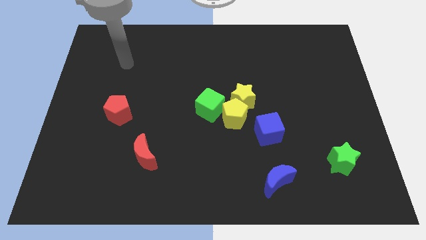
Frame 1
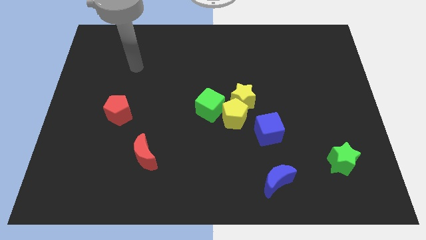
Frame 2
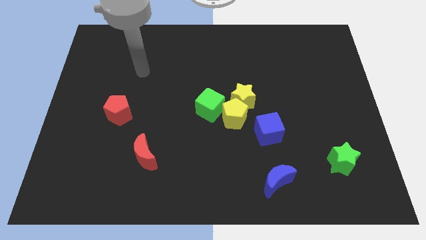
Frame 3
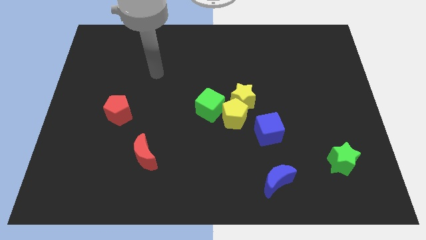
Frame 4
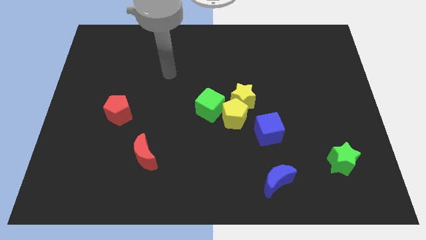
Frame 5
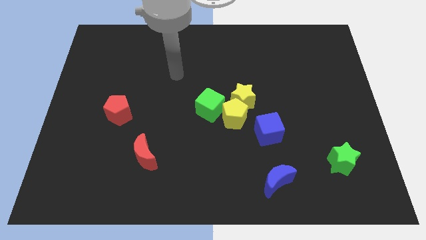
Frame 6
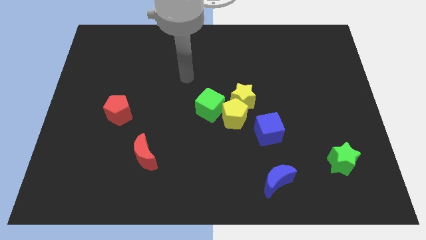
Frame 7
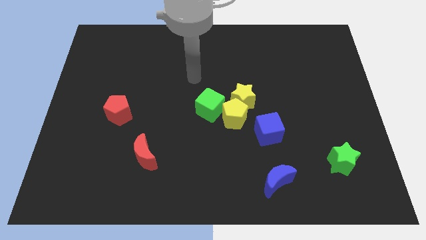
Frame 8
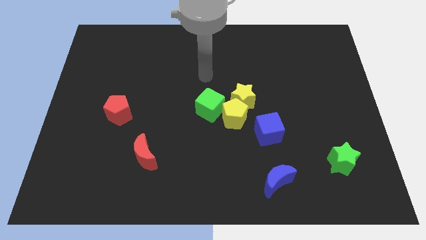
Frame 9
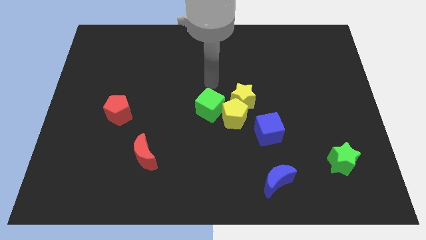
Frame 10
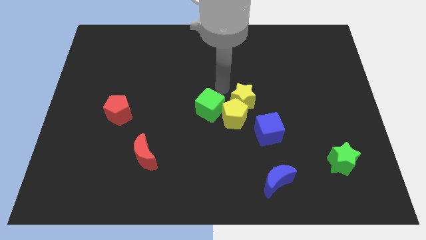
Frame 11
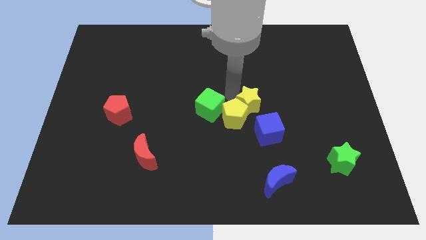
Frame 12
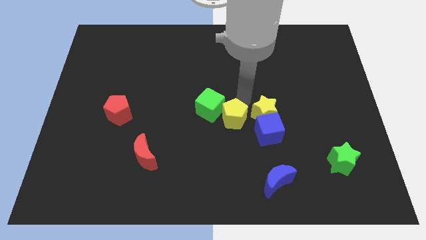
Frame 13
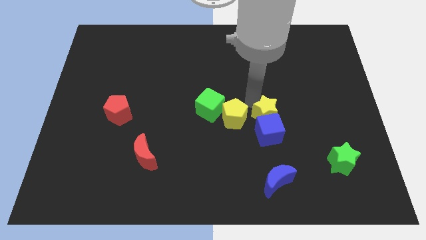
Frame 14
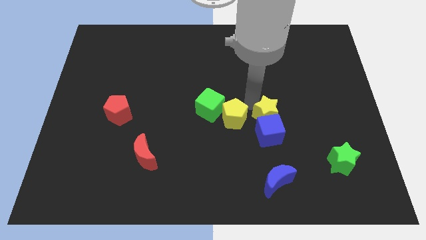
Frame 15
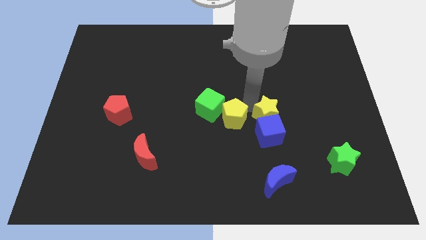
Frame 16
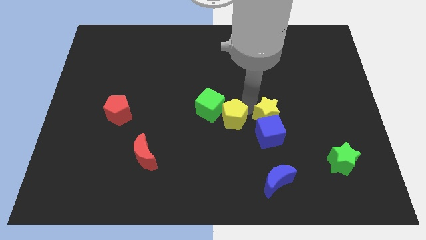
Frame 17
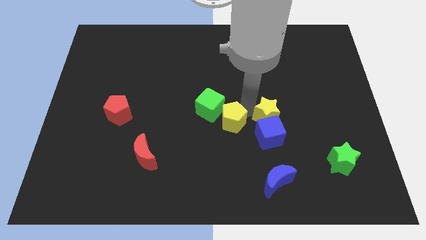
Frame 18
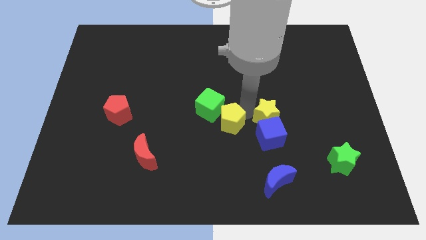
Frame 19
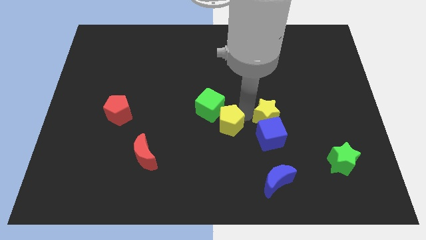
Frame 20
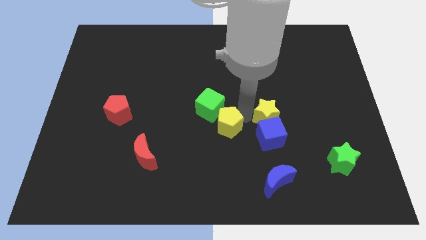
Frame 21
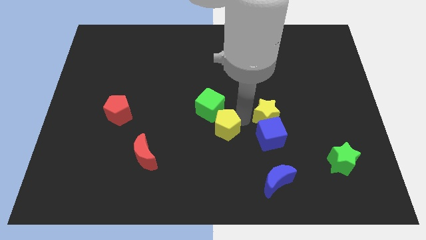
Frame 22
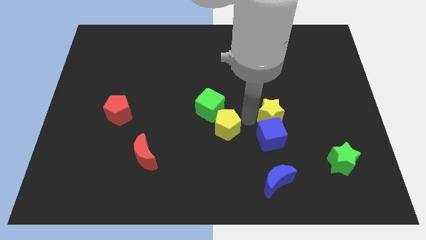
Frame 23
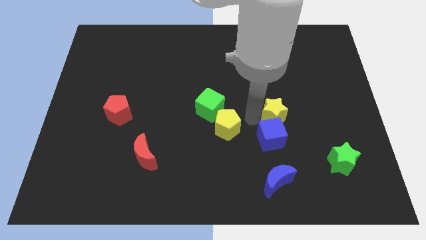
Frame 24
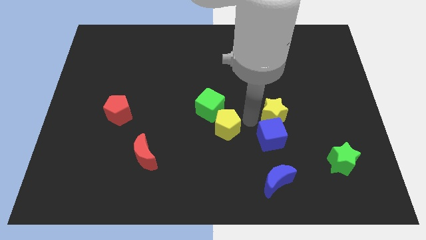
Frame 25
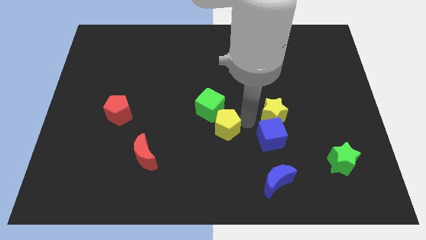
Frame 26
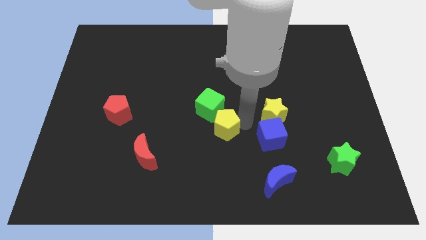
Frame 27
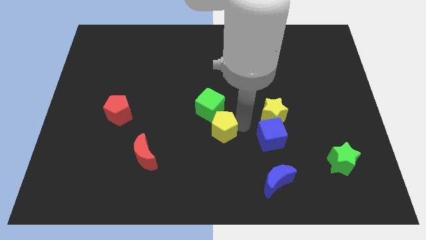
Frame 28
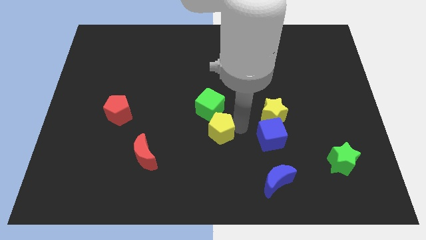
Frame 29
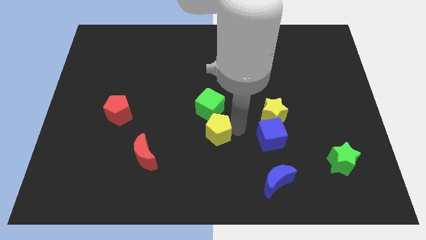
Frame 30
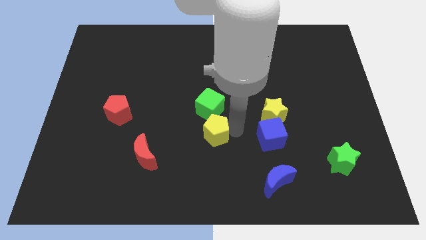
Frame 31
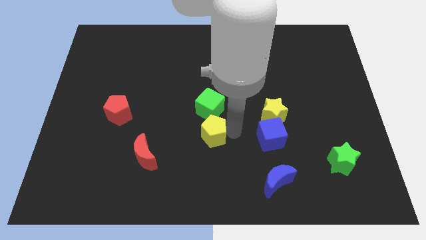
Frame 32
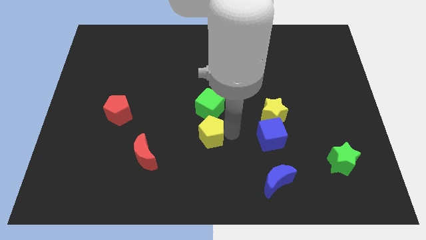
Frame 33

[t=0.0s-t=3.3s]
separate the yellow pentagon from the clump

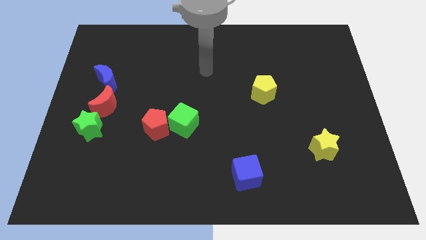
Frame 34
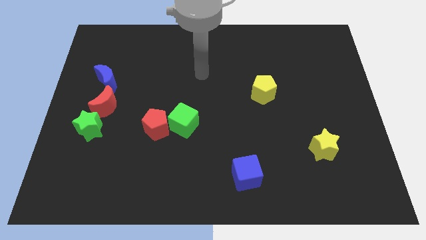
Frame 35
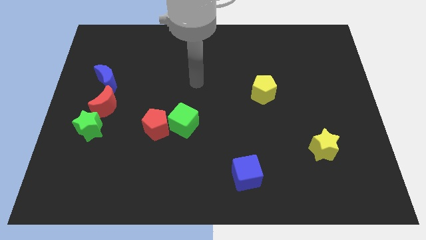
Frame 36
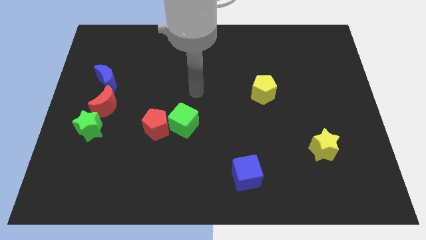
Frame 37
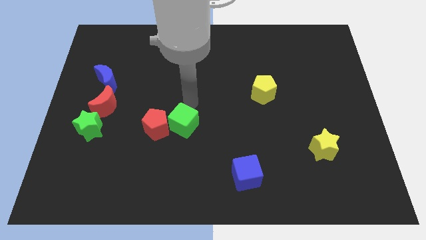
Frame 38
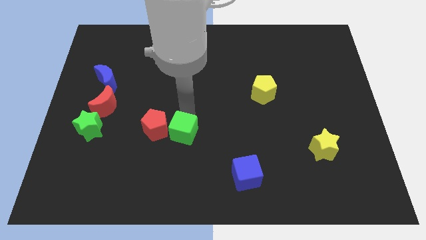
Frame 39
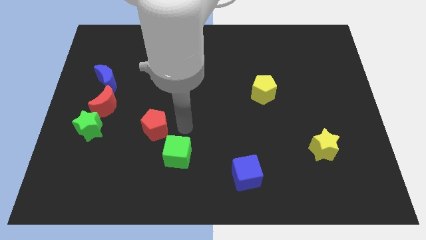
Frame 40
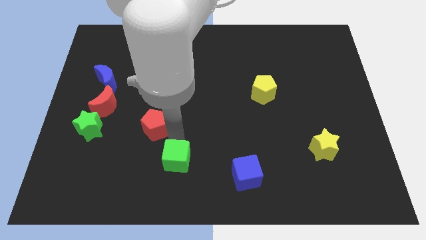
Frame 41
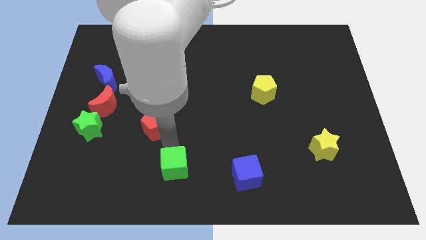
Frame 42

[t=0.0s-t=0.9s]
separate the red pentagon from the green cube

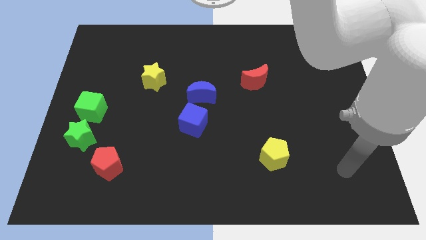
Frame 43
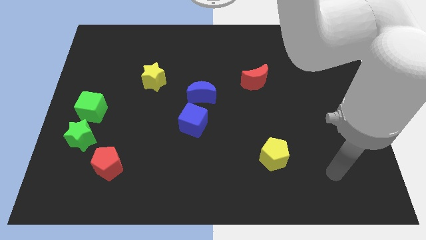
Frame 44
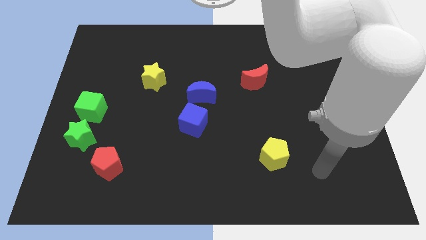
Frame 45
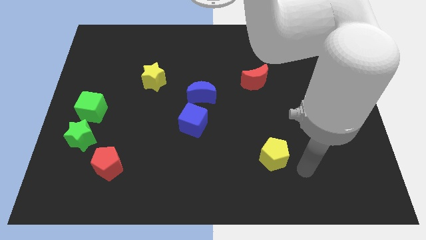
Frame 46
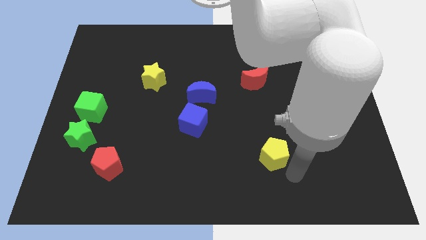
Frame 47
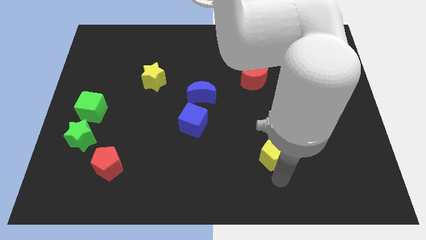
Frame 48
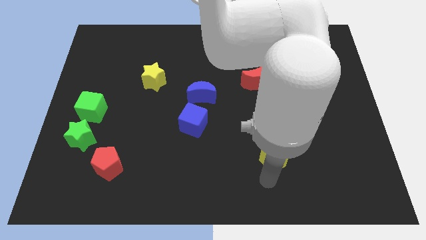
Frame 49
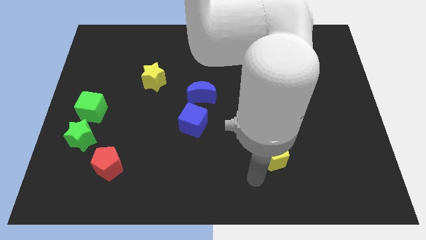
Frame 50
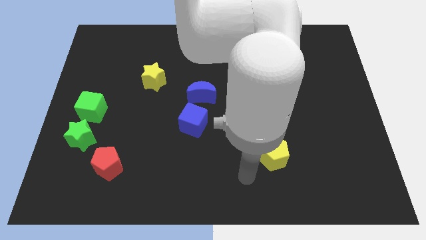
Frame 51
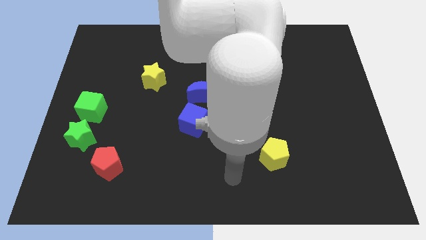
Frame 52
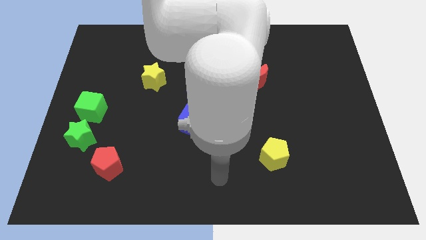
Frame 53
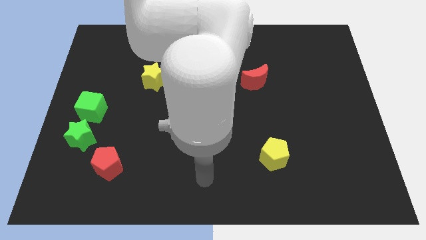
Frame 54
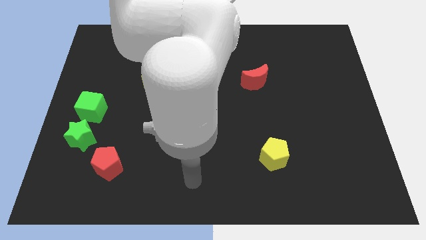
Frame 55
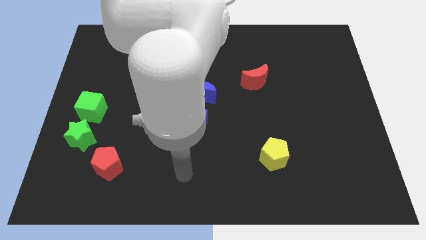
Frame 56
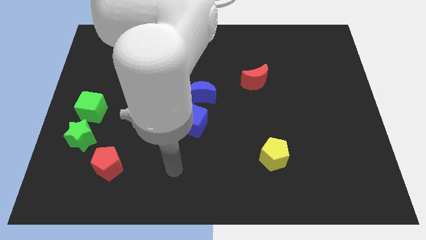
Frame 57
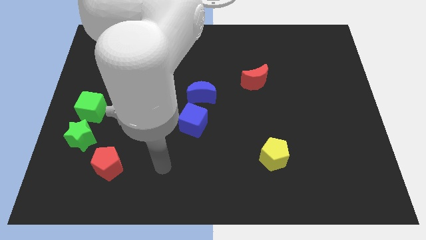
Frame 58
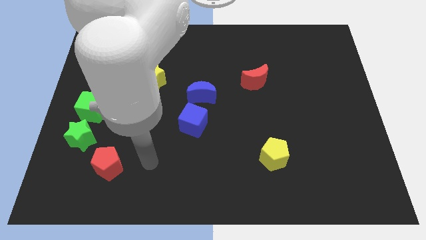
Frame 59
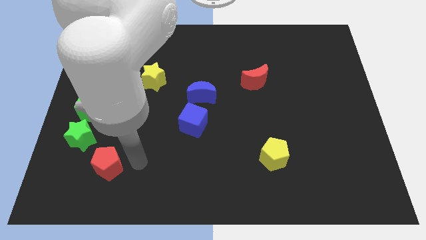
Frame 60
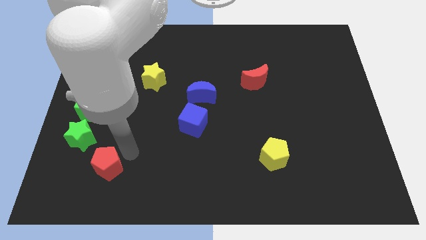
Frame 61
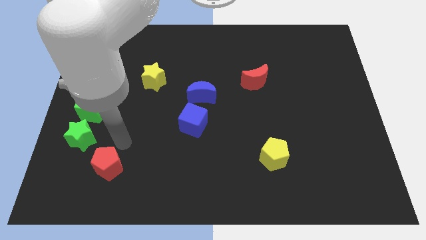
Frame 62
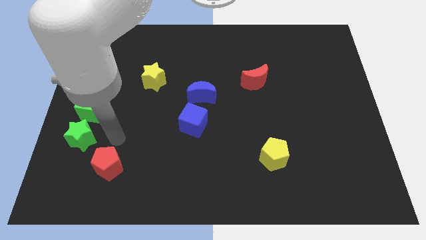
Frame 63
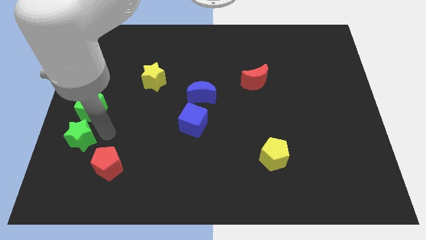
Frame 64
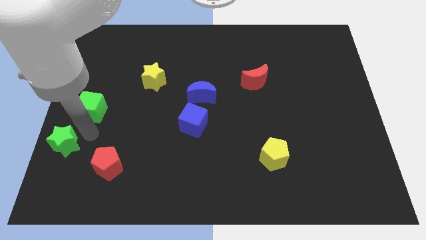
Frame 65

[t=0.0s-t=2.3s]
pull the green cube apart from the green star

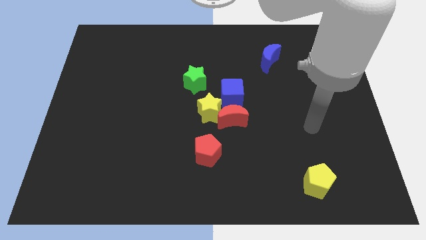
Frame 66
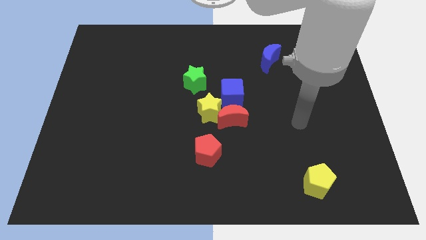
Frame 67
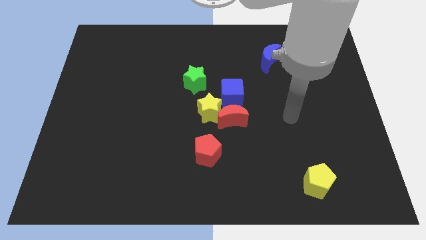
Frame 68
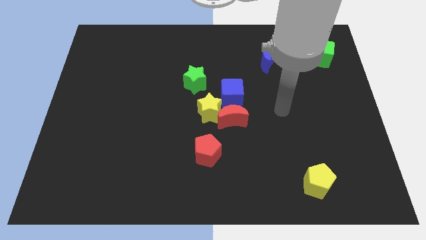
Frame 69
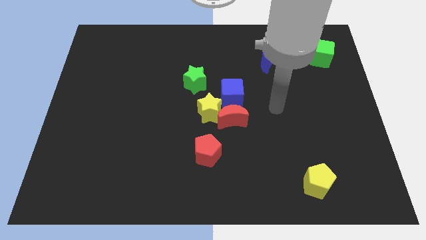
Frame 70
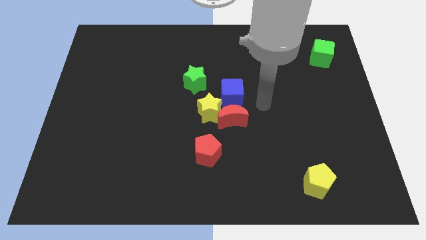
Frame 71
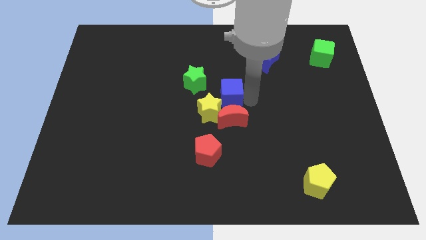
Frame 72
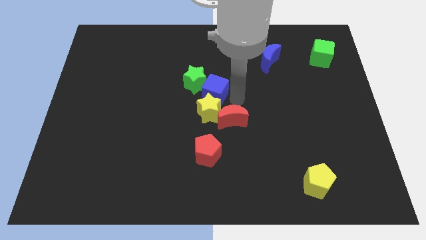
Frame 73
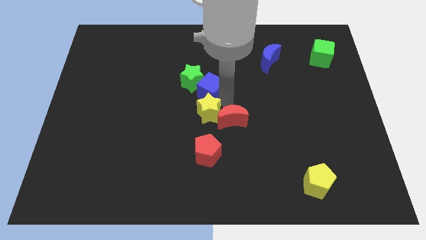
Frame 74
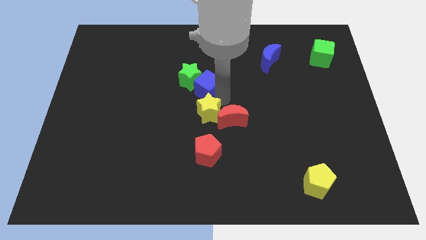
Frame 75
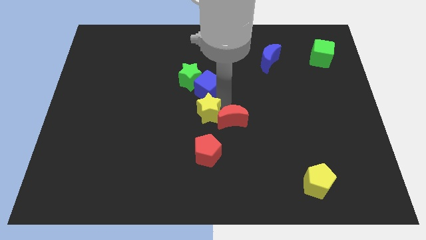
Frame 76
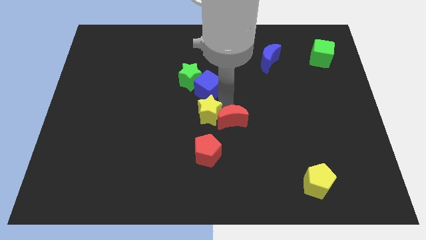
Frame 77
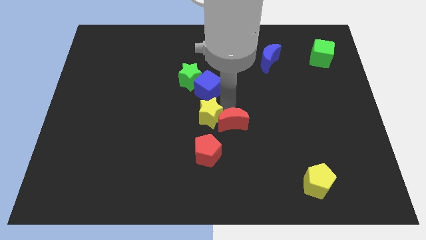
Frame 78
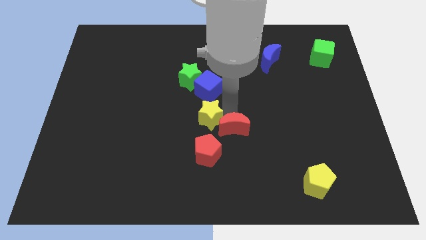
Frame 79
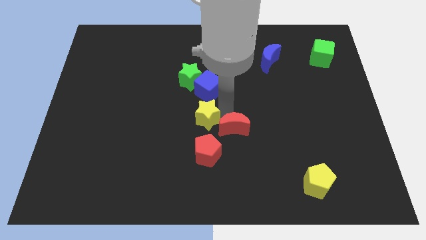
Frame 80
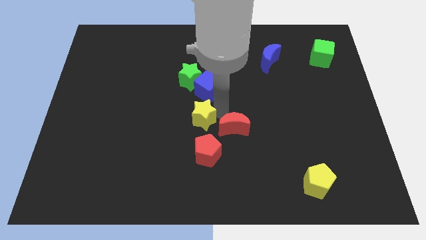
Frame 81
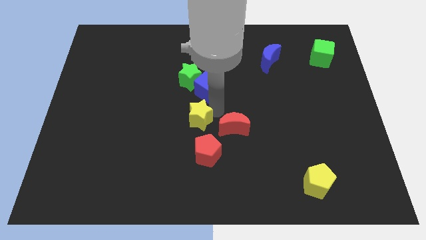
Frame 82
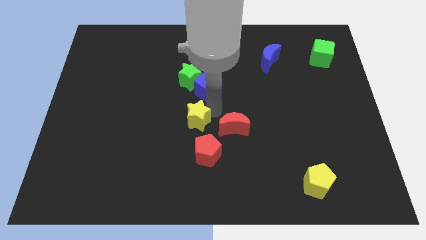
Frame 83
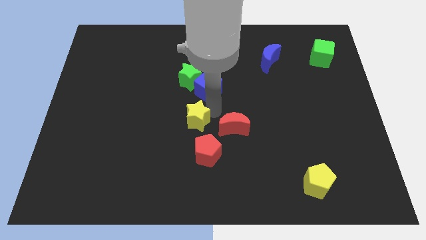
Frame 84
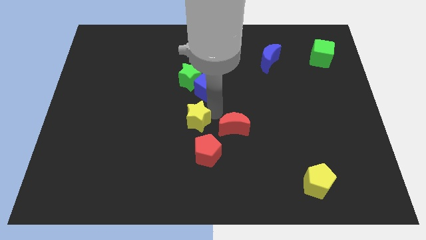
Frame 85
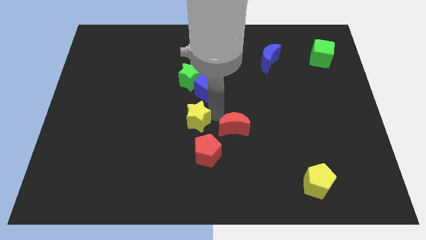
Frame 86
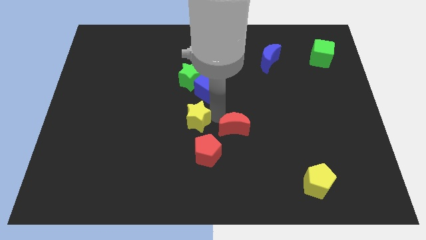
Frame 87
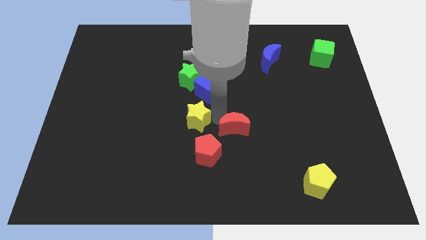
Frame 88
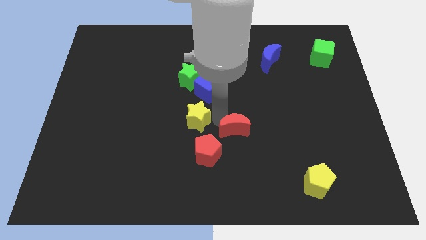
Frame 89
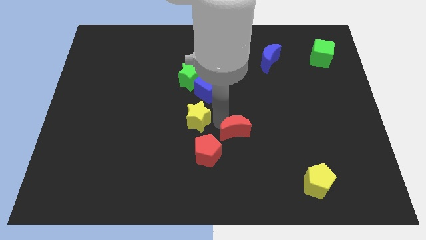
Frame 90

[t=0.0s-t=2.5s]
pull the red moon apart from the yellow star and blue cube

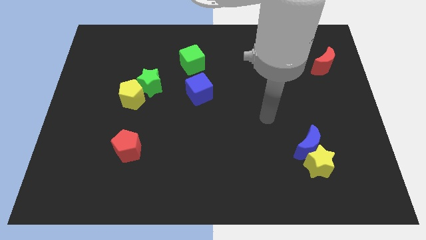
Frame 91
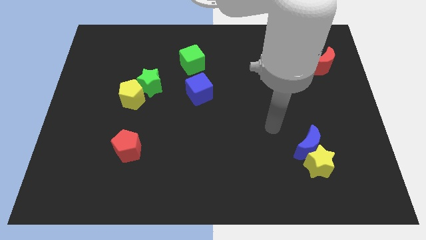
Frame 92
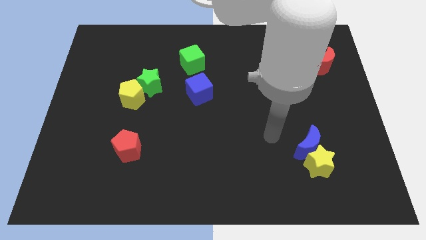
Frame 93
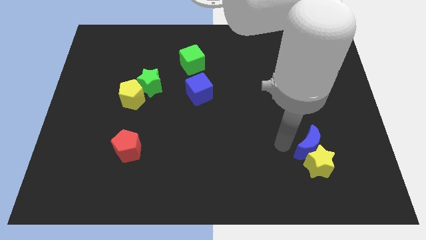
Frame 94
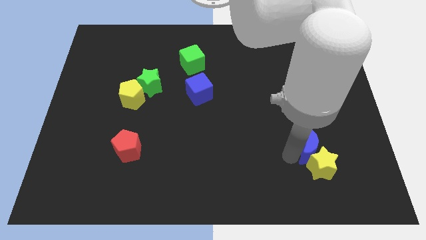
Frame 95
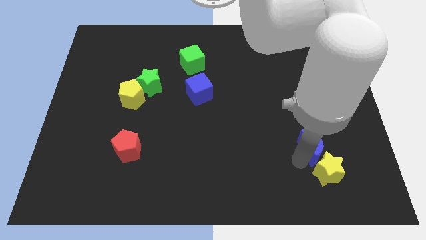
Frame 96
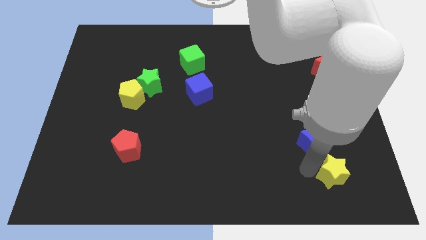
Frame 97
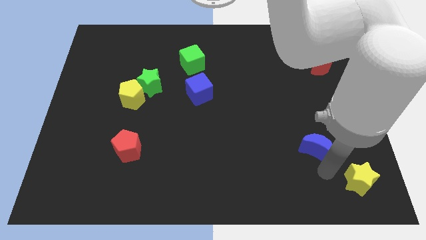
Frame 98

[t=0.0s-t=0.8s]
pull the blue moon apart from the yellow star
